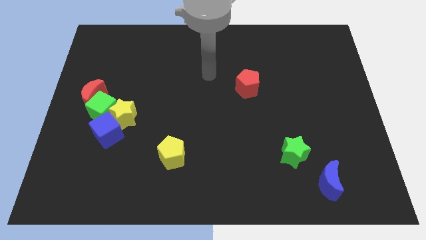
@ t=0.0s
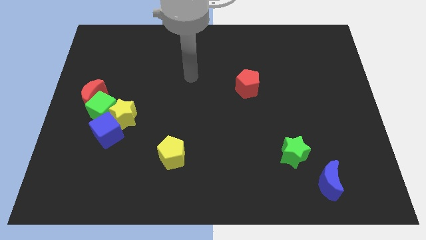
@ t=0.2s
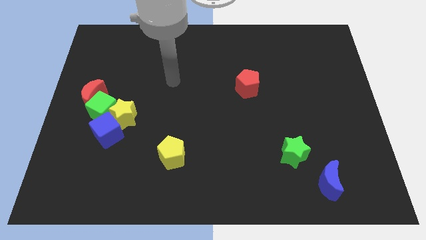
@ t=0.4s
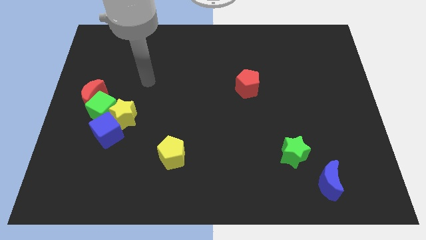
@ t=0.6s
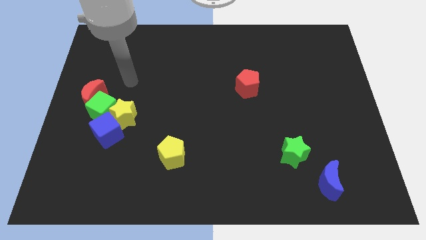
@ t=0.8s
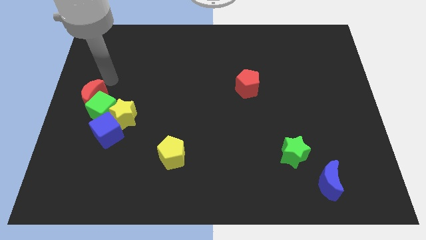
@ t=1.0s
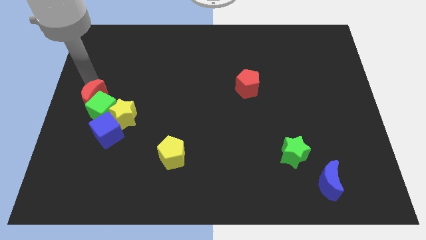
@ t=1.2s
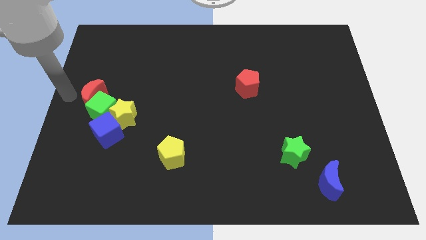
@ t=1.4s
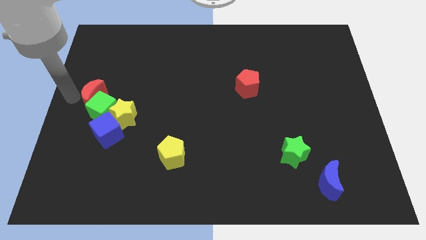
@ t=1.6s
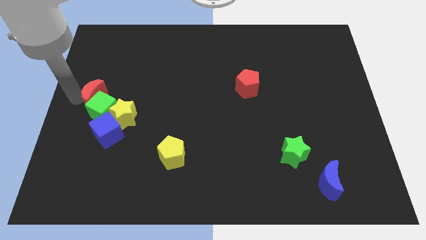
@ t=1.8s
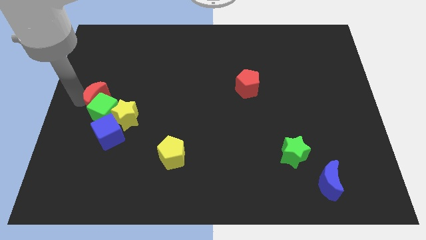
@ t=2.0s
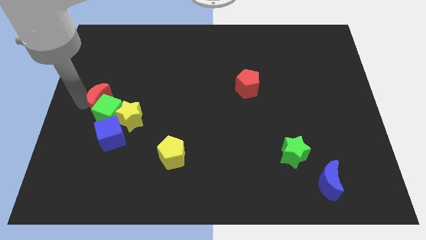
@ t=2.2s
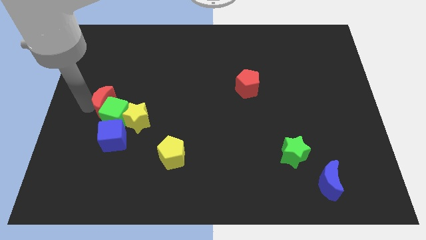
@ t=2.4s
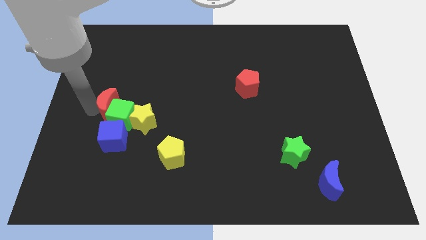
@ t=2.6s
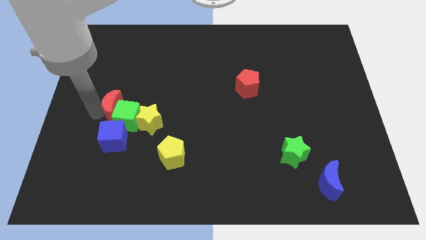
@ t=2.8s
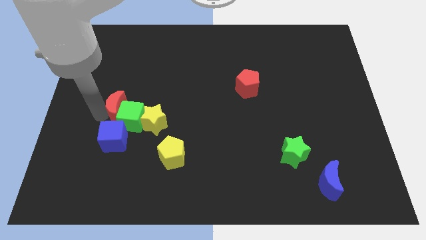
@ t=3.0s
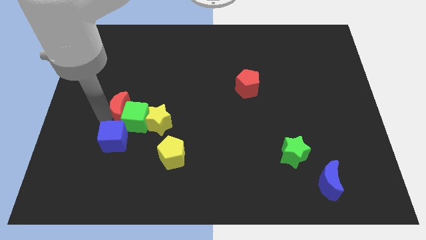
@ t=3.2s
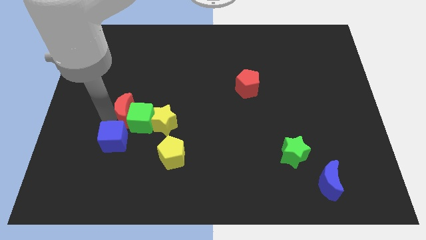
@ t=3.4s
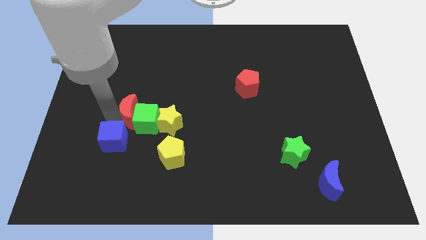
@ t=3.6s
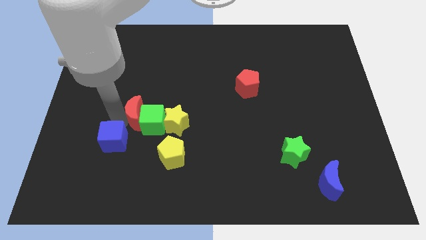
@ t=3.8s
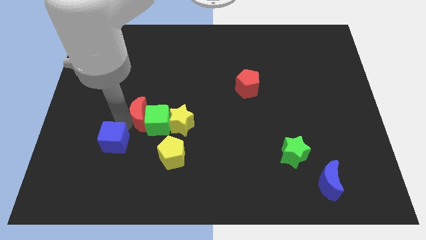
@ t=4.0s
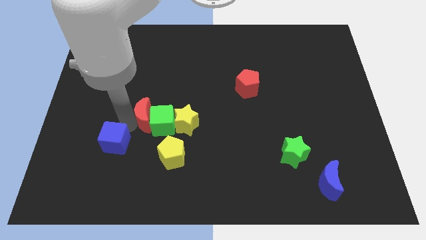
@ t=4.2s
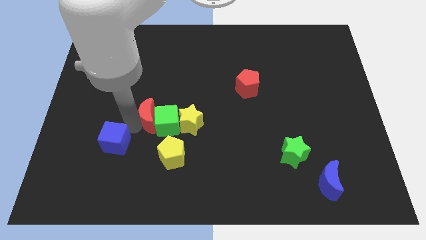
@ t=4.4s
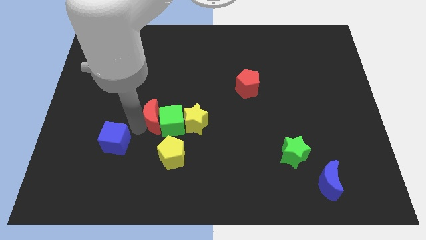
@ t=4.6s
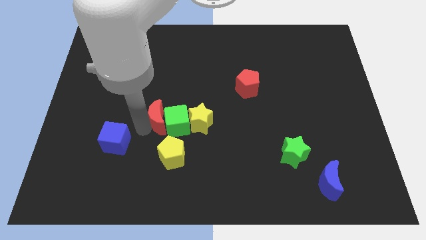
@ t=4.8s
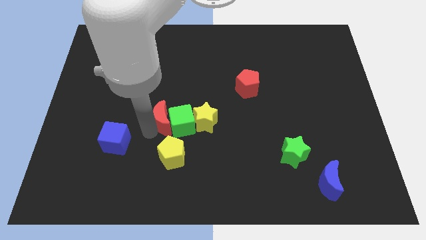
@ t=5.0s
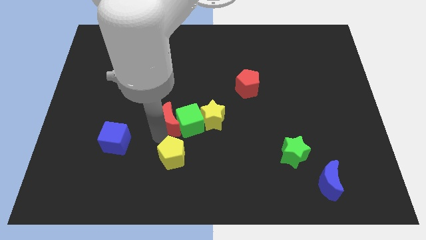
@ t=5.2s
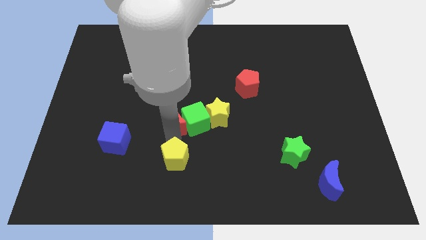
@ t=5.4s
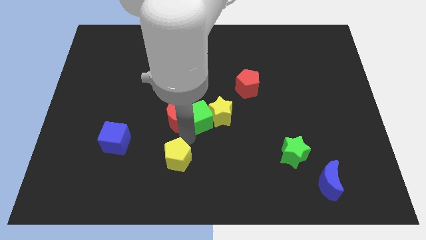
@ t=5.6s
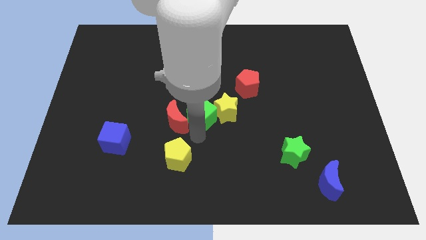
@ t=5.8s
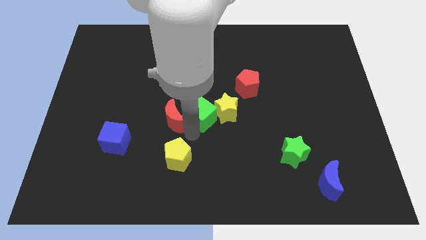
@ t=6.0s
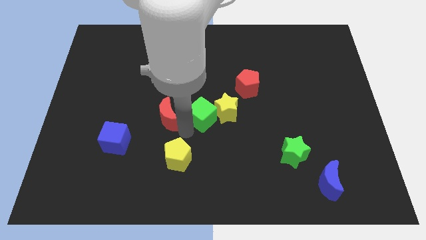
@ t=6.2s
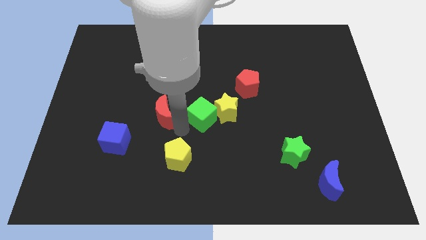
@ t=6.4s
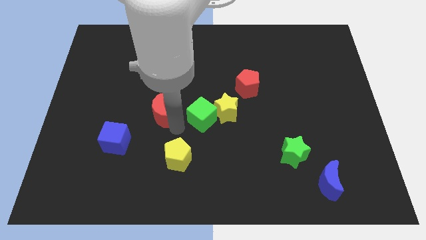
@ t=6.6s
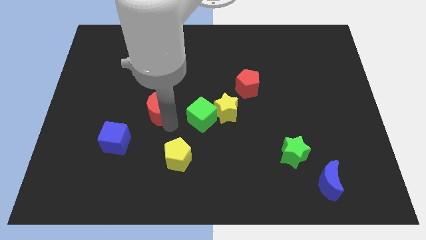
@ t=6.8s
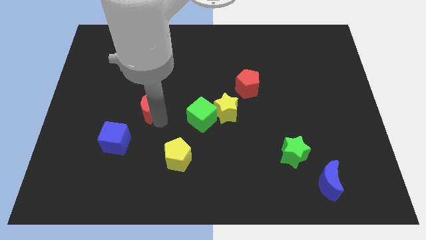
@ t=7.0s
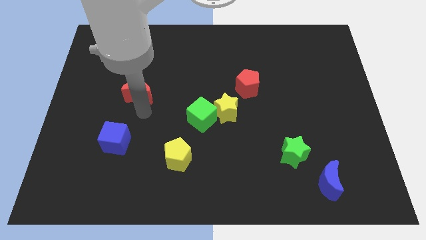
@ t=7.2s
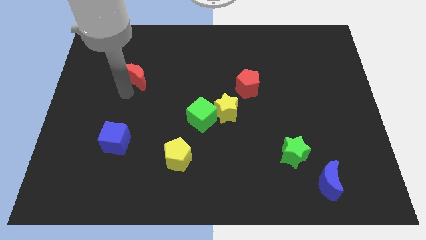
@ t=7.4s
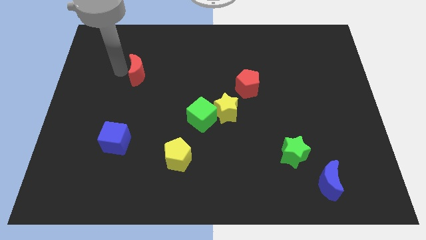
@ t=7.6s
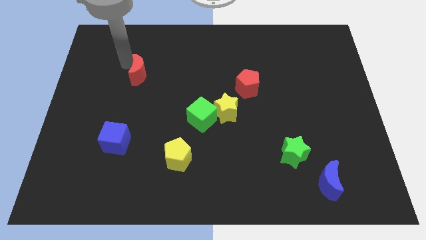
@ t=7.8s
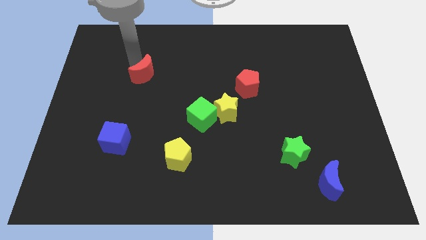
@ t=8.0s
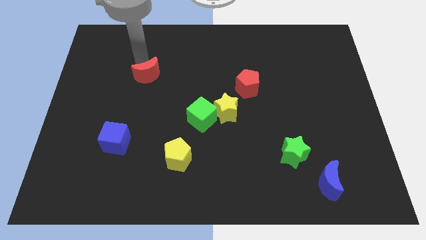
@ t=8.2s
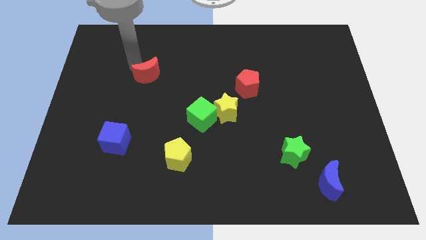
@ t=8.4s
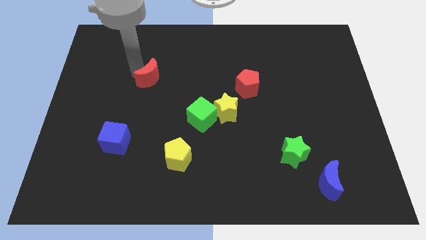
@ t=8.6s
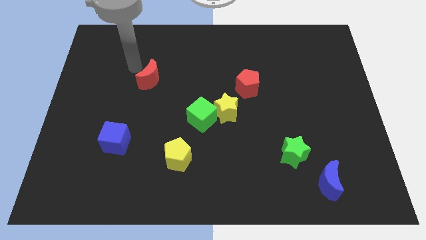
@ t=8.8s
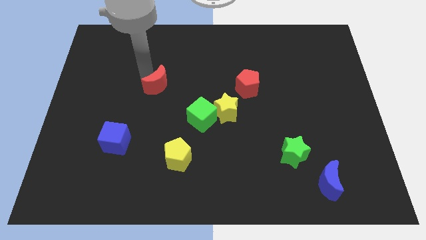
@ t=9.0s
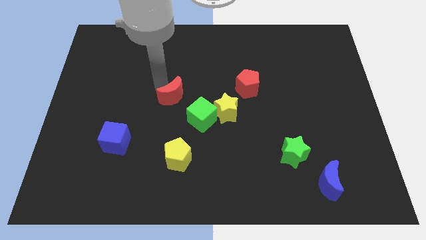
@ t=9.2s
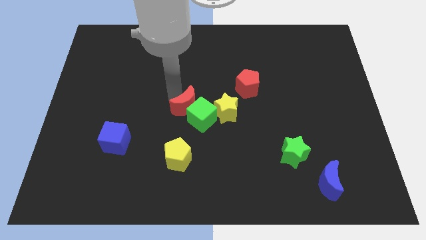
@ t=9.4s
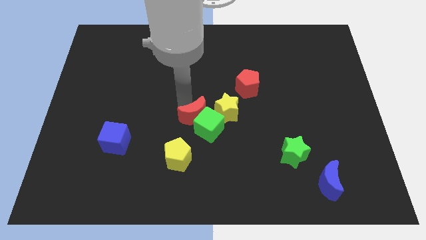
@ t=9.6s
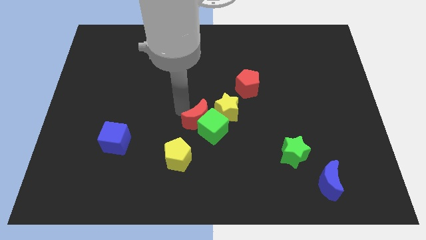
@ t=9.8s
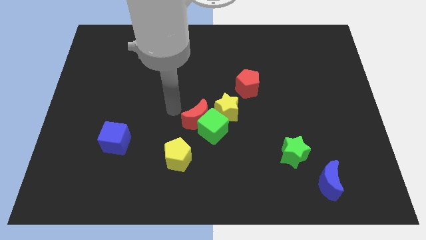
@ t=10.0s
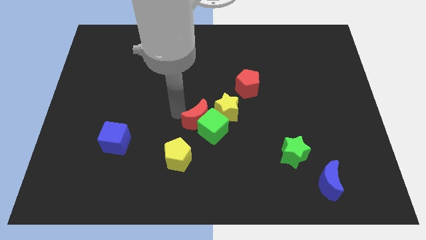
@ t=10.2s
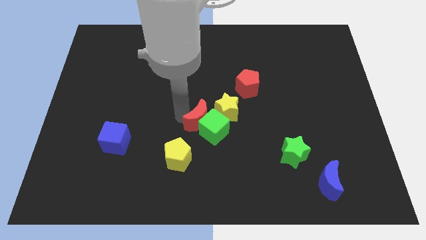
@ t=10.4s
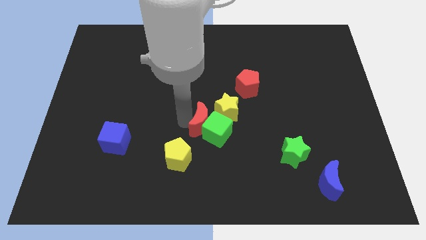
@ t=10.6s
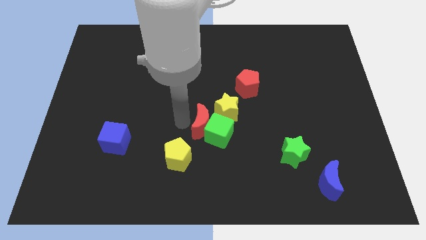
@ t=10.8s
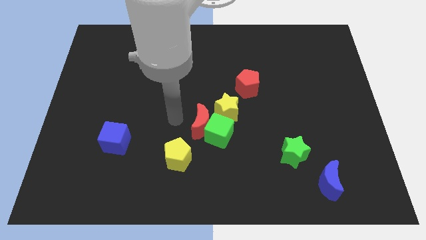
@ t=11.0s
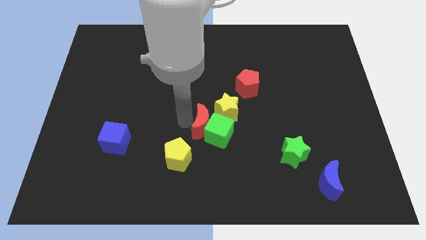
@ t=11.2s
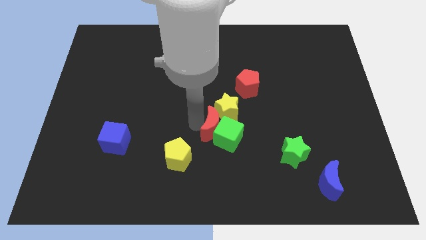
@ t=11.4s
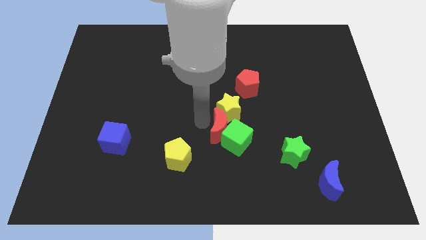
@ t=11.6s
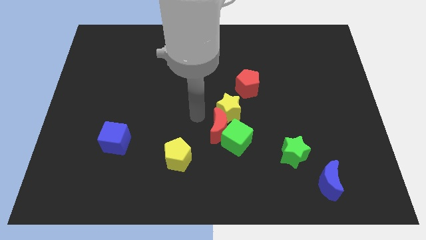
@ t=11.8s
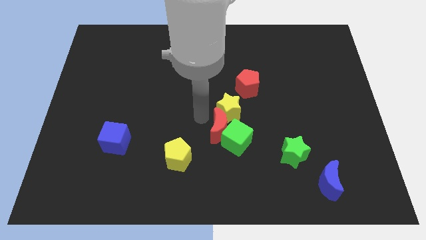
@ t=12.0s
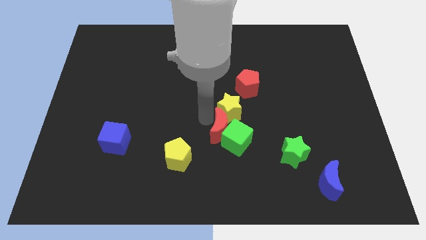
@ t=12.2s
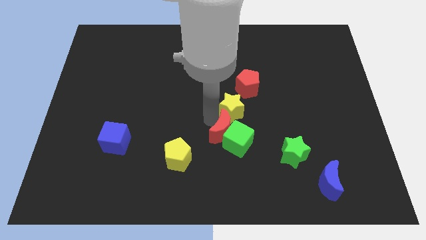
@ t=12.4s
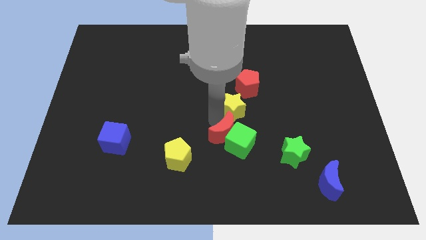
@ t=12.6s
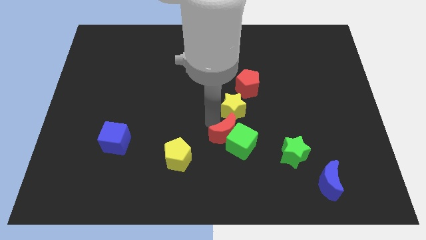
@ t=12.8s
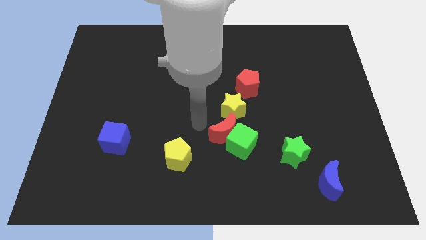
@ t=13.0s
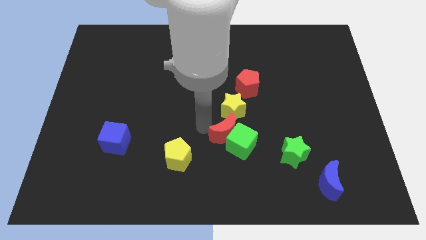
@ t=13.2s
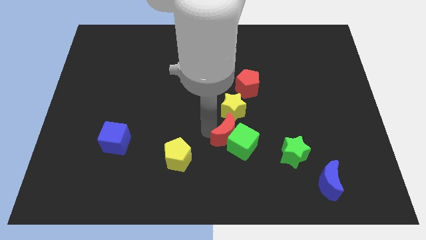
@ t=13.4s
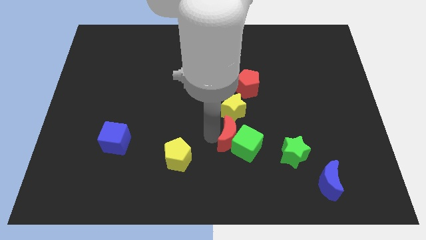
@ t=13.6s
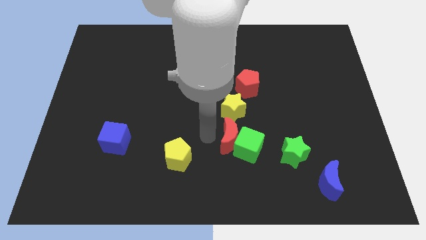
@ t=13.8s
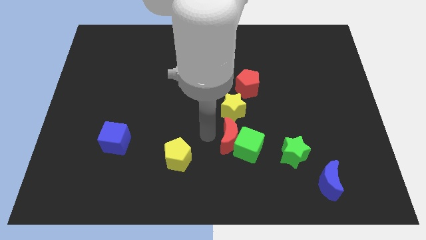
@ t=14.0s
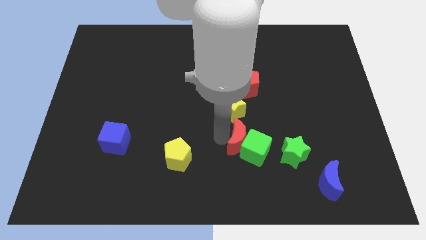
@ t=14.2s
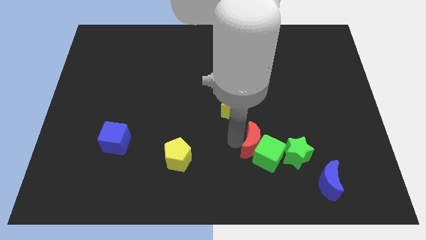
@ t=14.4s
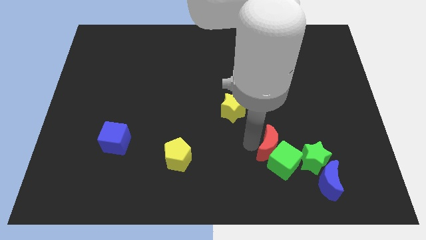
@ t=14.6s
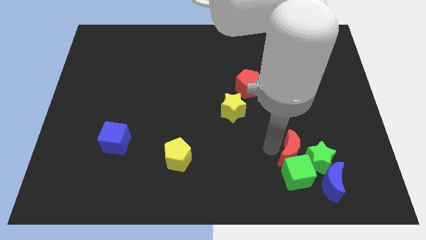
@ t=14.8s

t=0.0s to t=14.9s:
move the red moon towards the green star
